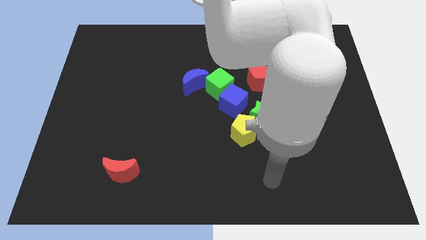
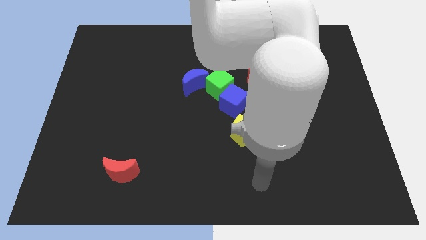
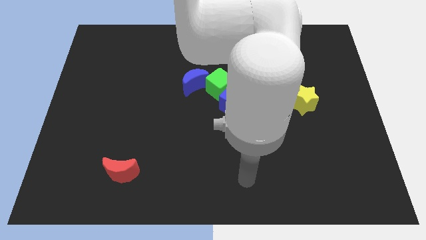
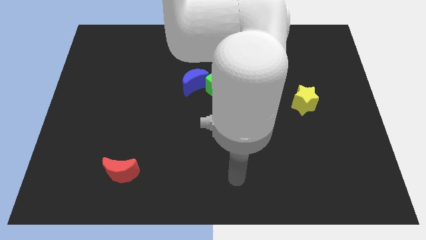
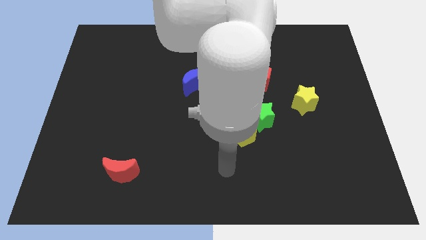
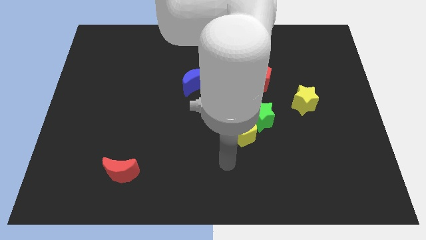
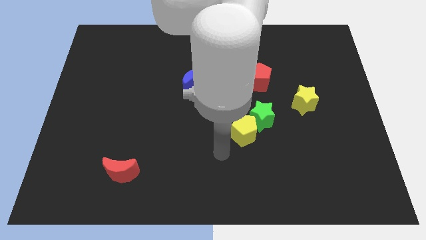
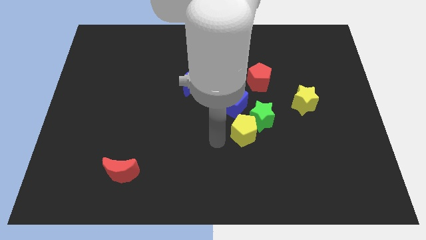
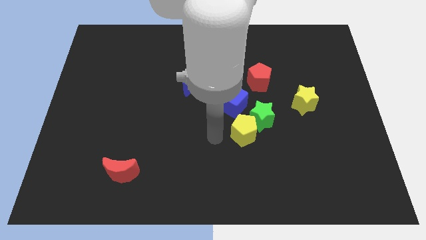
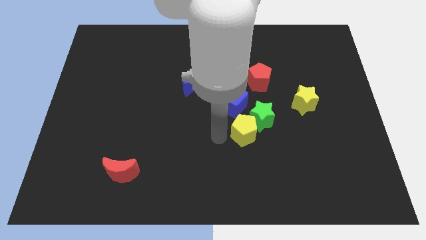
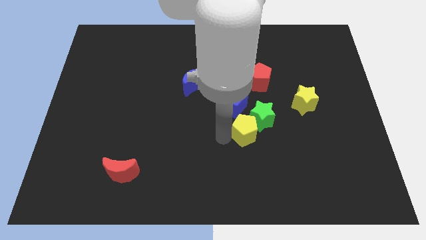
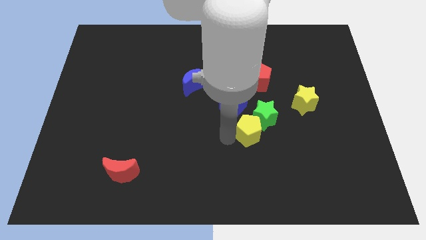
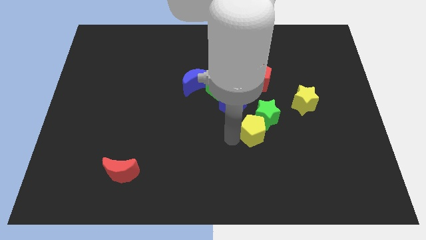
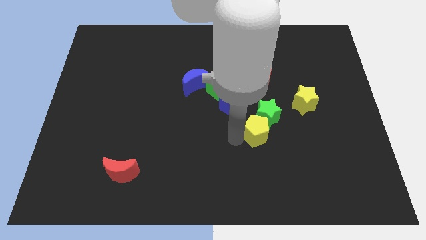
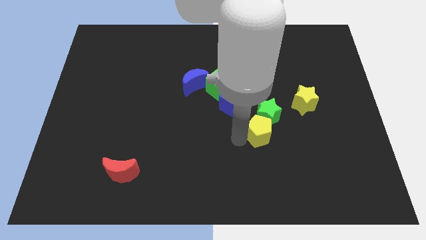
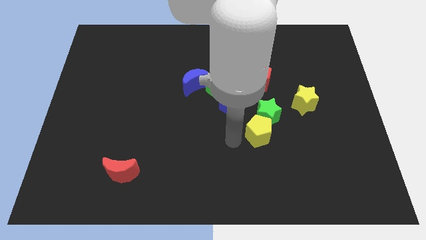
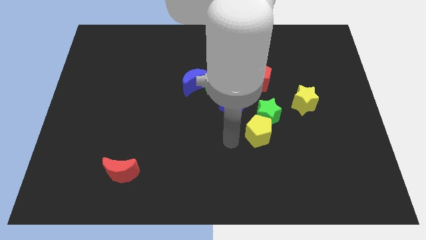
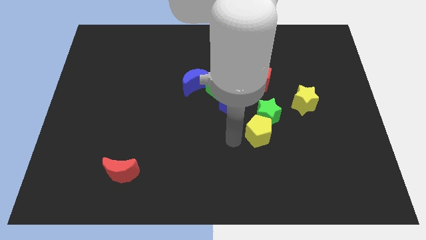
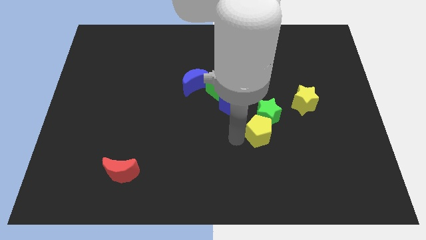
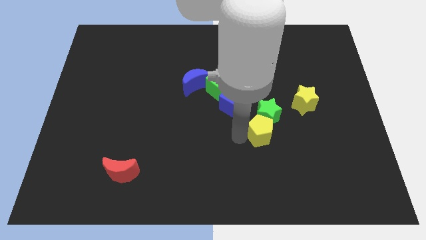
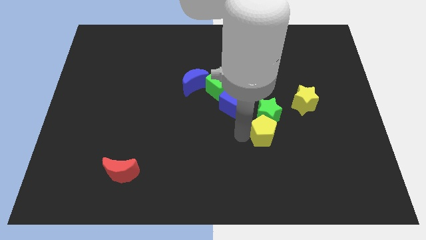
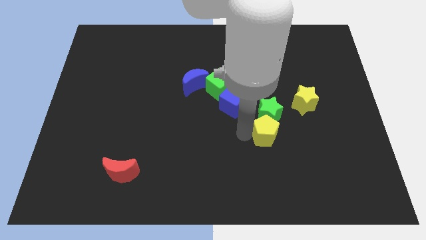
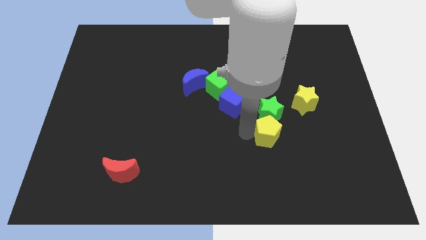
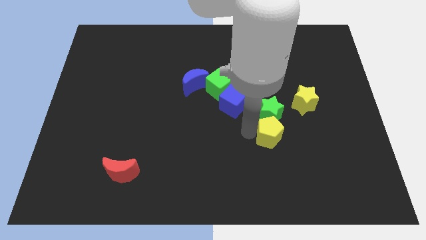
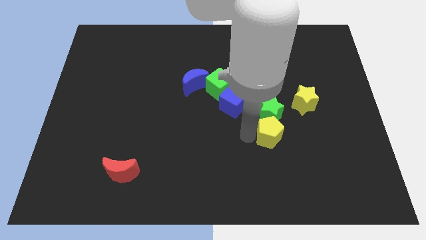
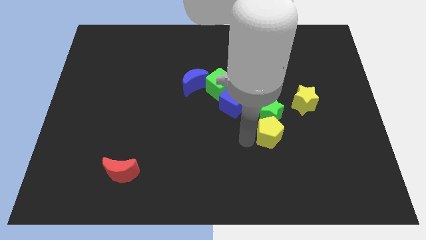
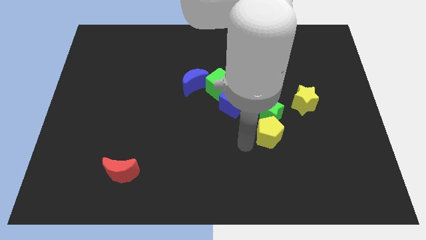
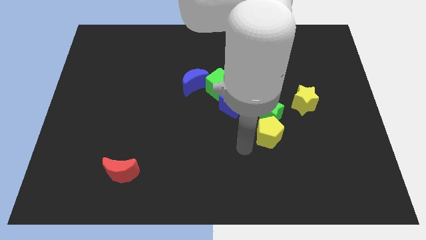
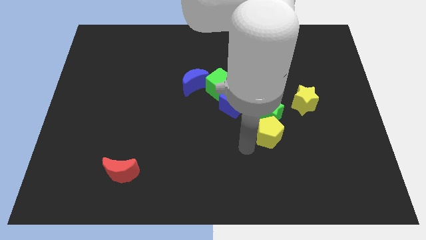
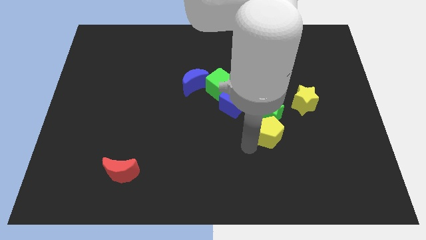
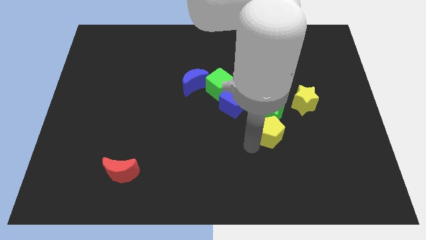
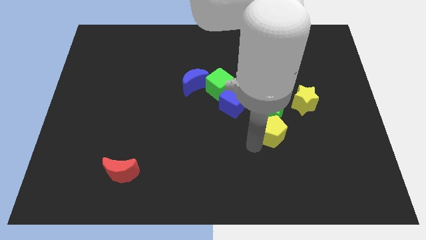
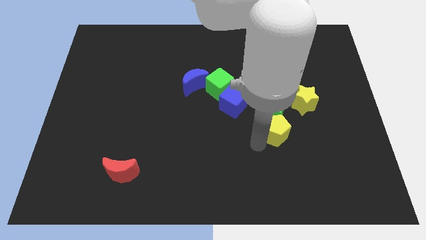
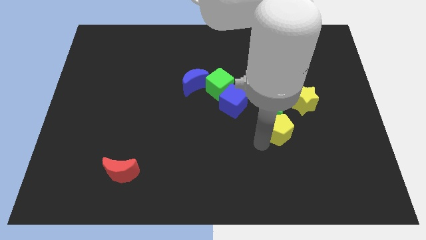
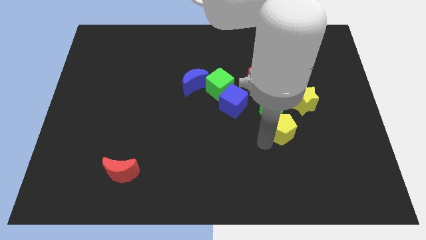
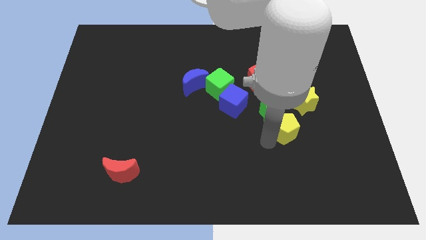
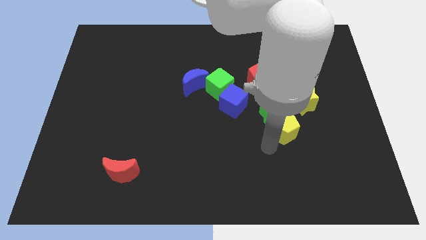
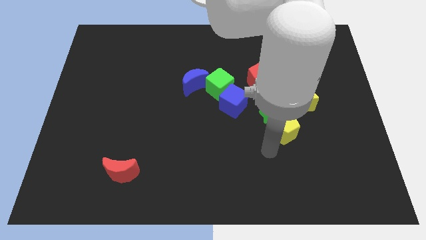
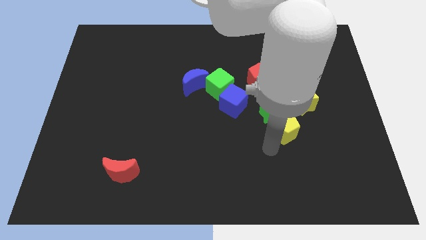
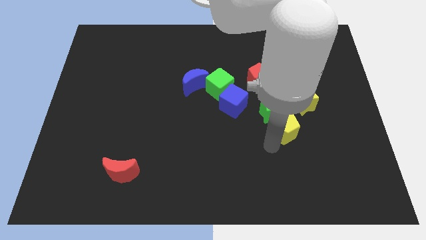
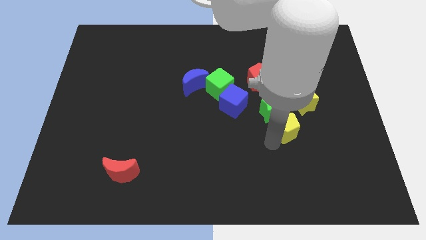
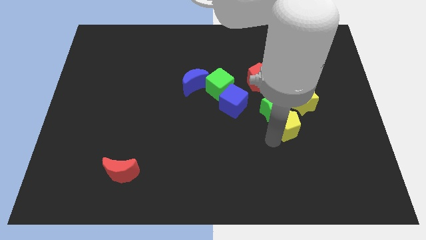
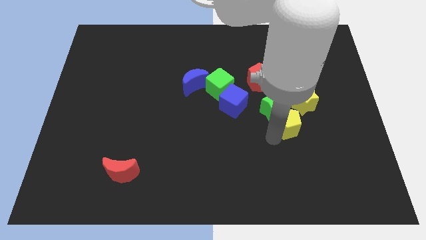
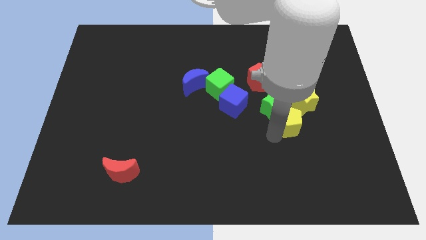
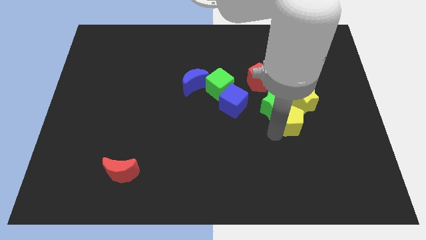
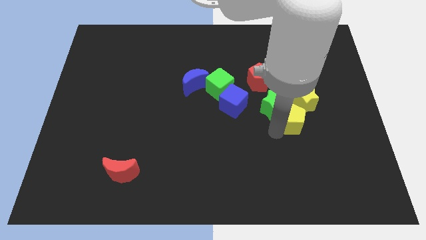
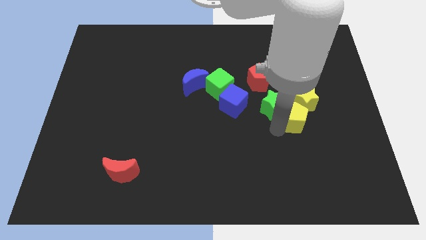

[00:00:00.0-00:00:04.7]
push the yellow pentagon towards the yellow star

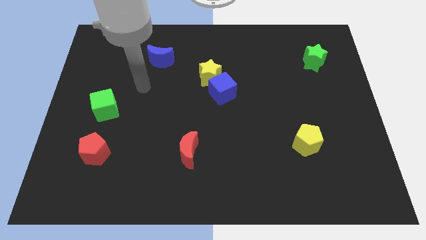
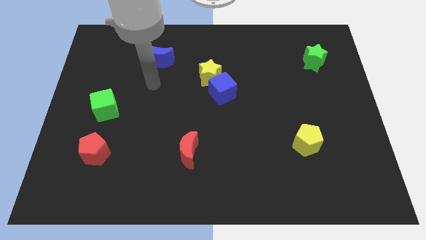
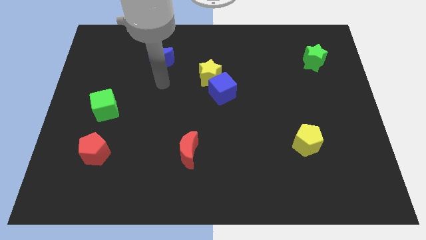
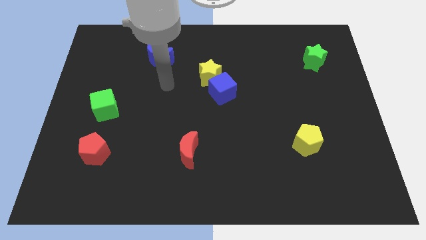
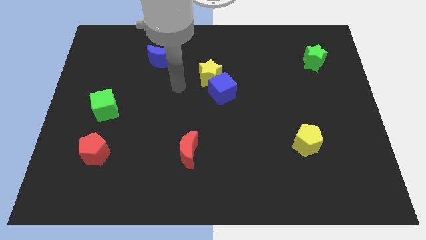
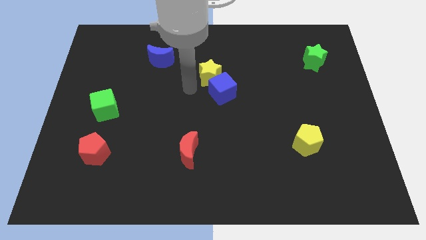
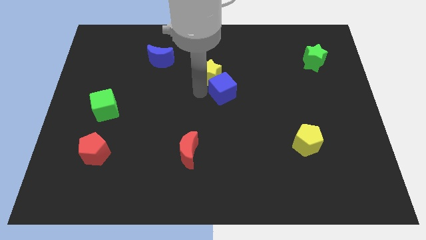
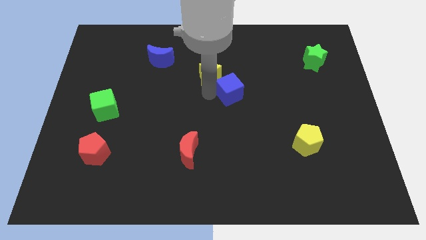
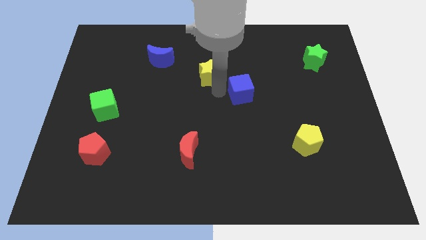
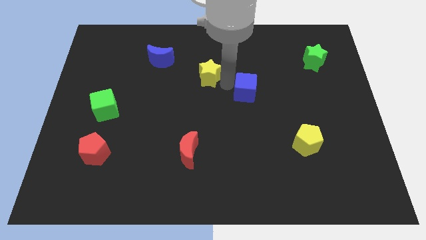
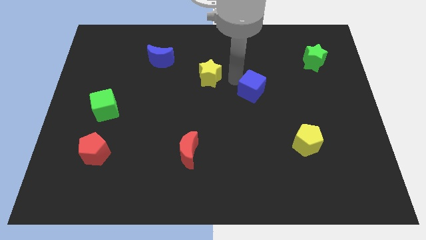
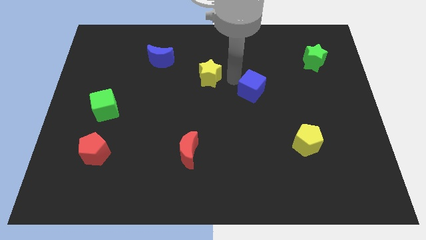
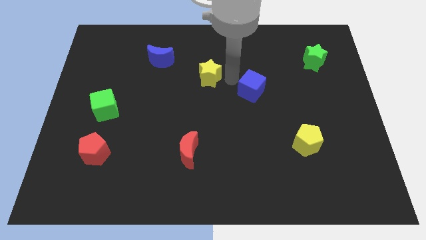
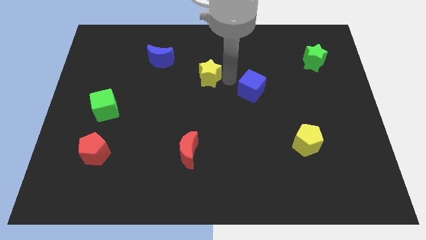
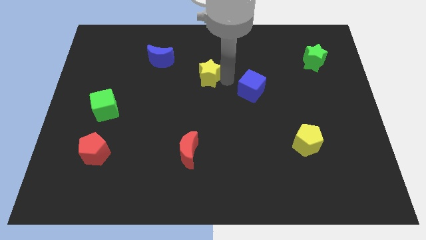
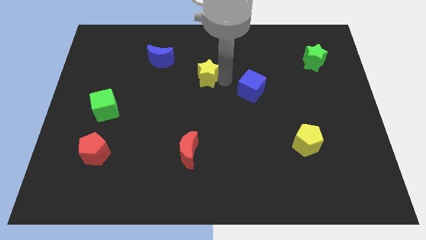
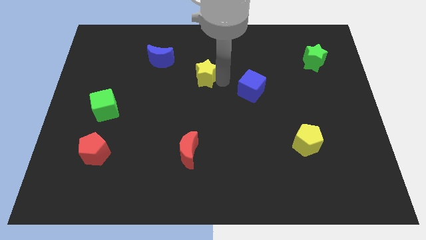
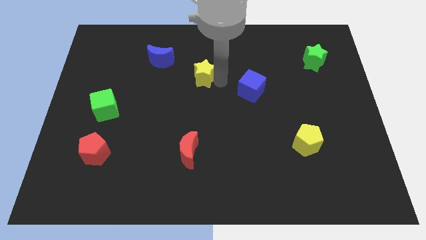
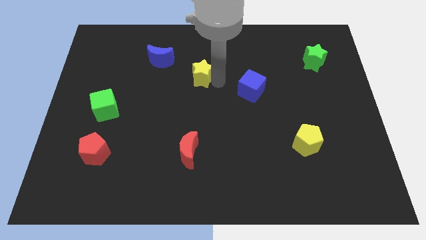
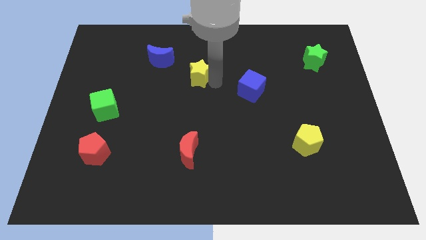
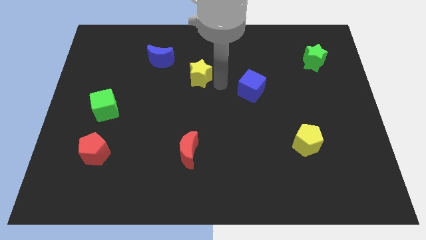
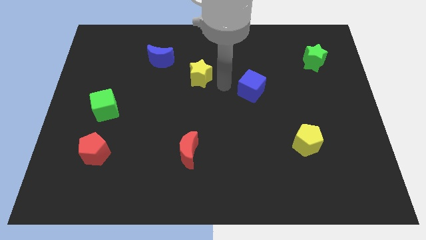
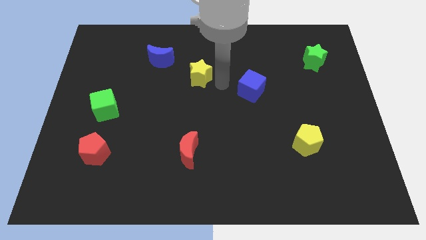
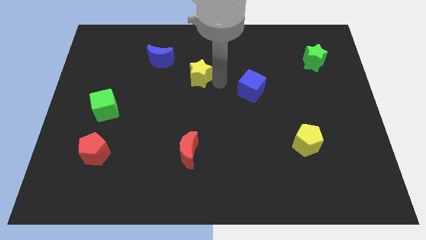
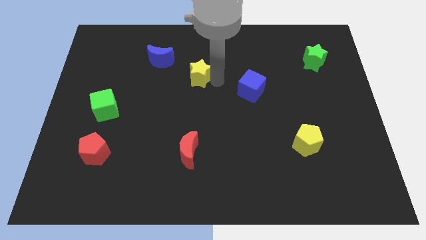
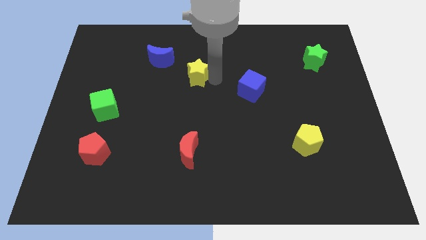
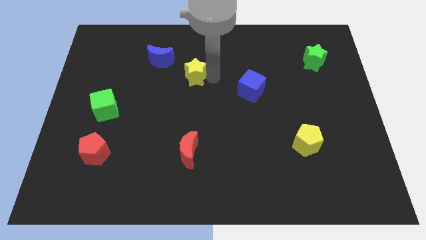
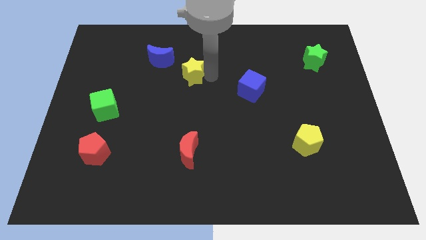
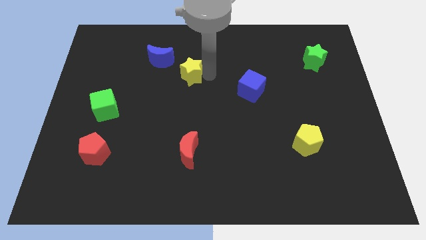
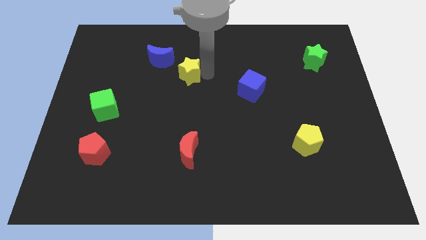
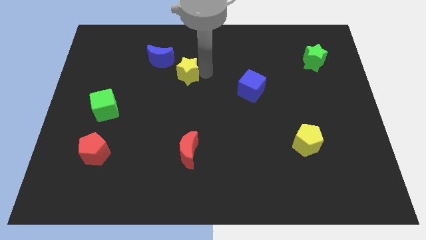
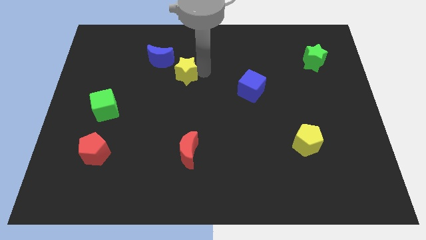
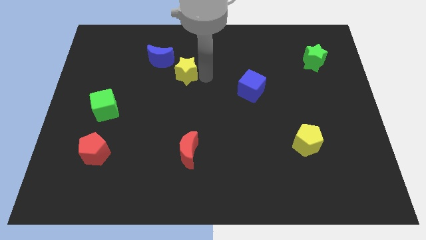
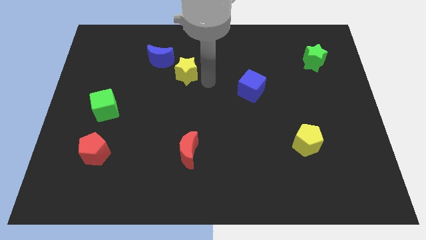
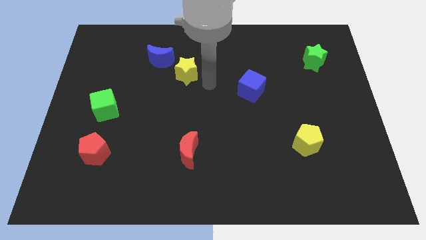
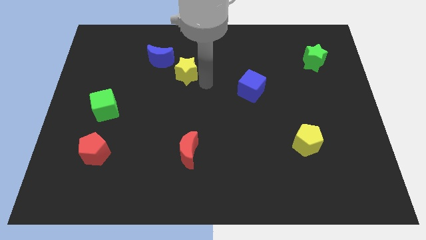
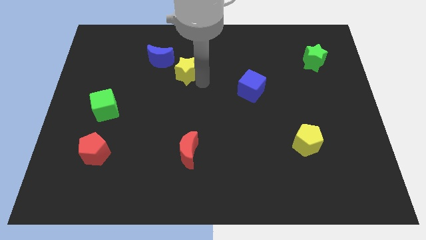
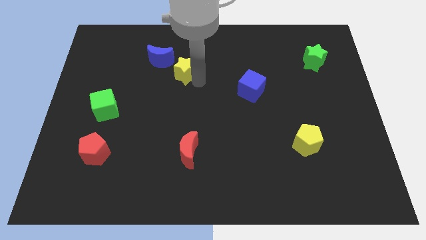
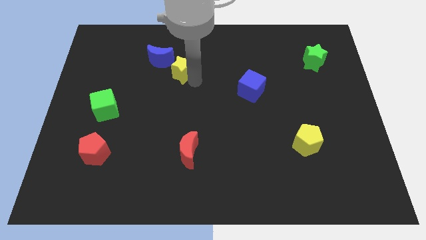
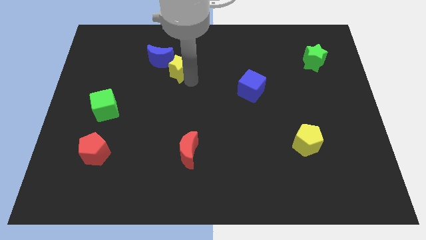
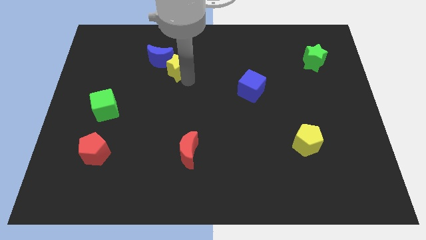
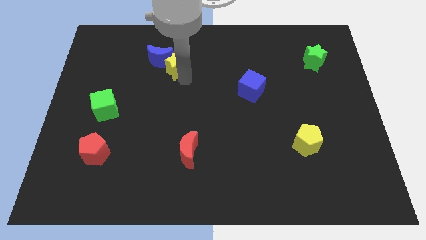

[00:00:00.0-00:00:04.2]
put the yellow star close to the blue moon
